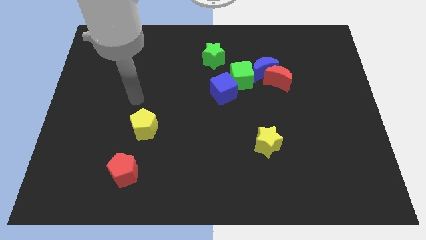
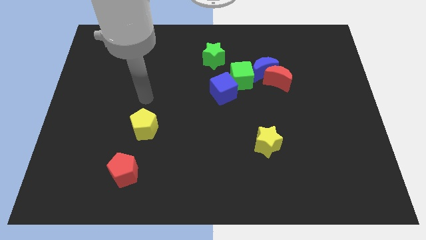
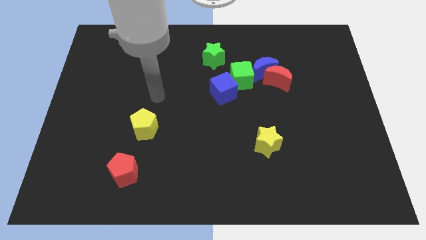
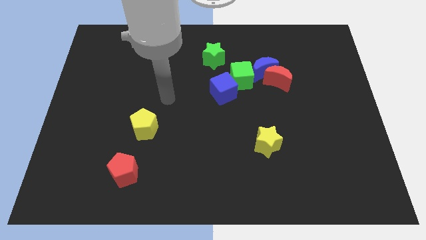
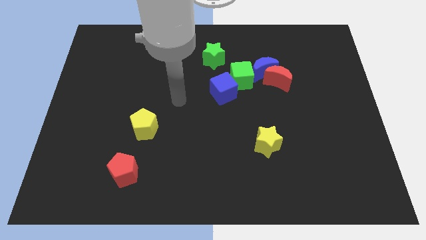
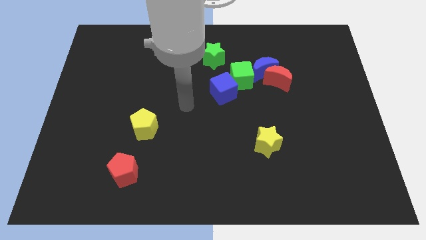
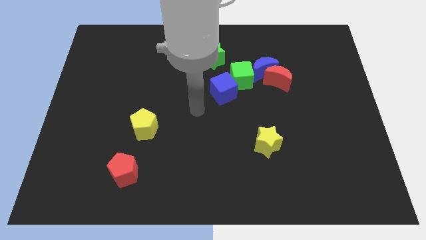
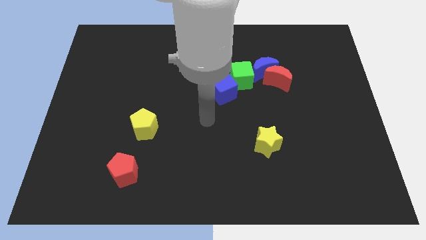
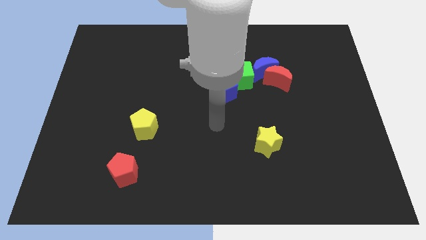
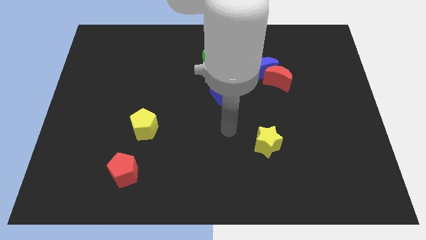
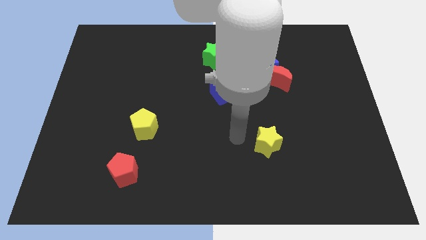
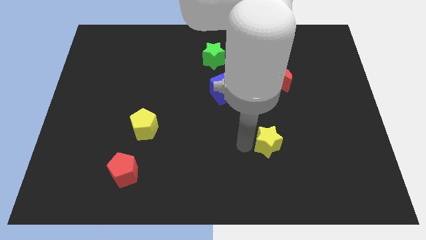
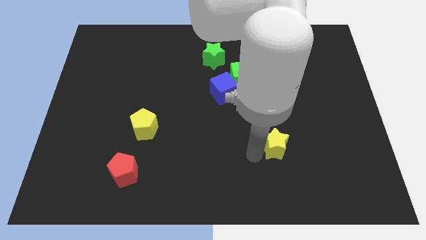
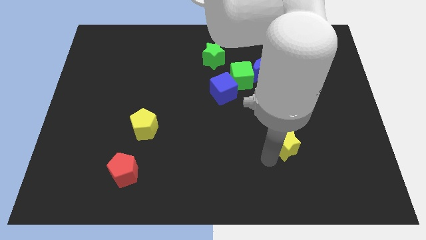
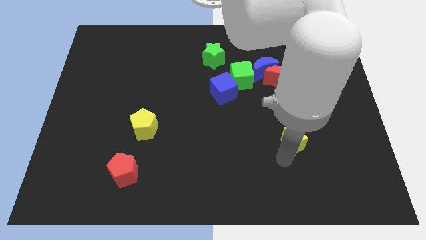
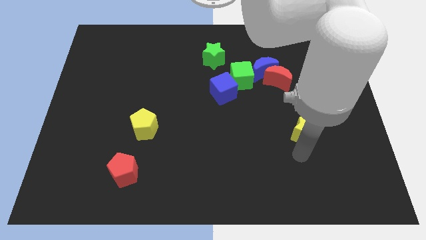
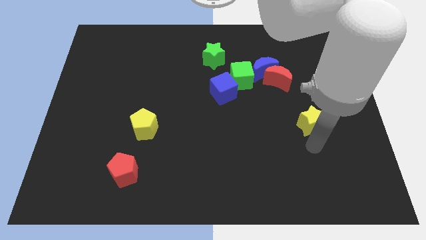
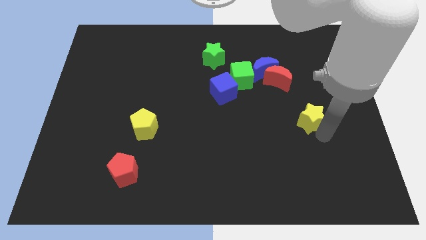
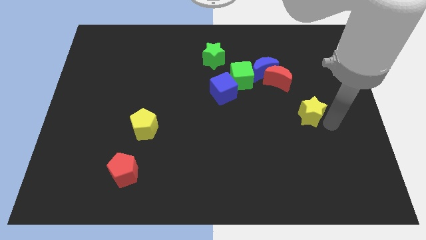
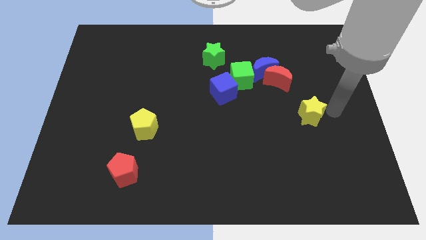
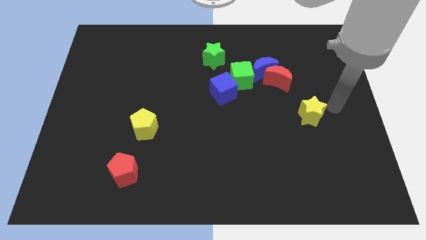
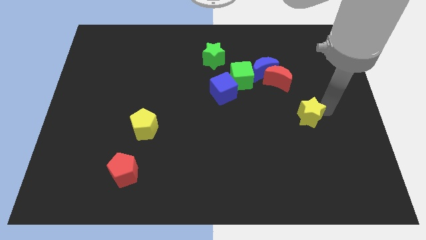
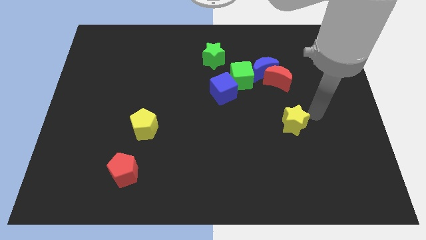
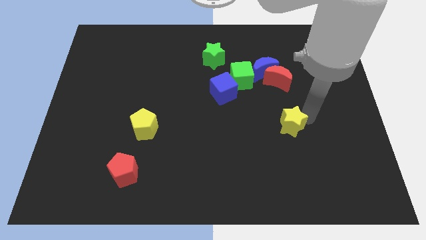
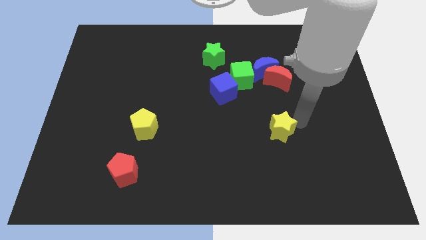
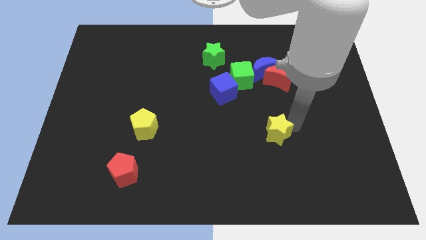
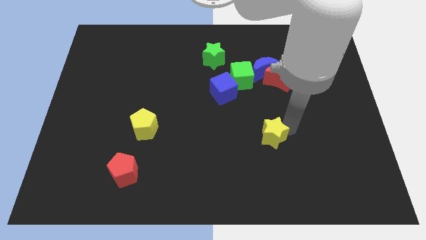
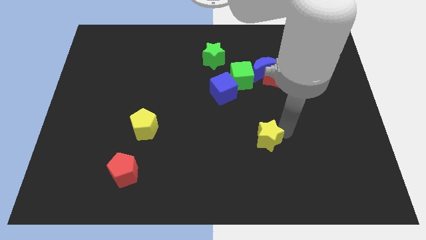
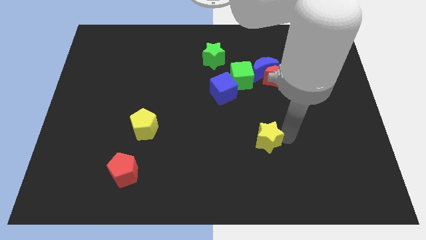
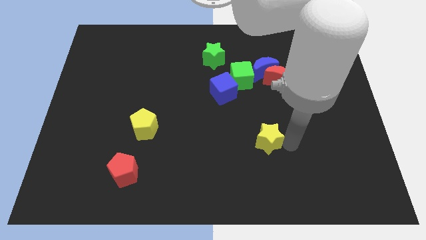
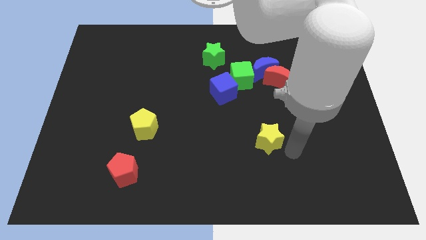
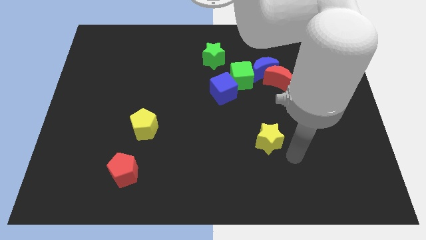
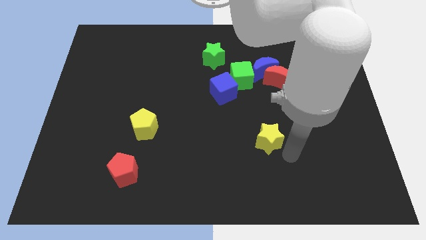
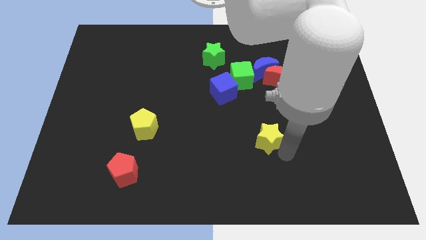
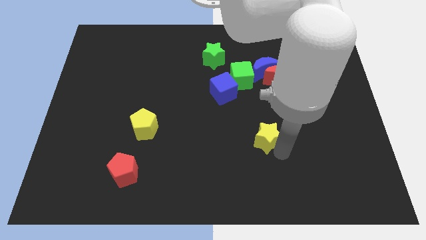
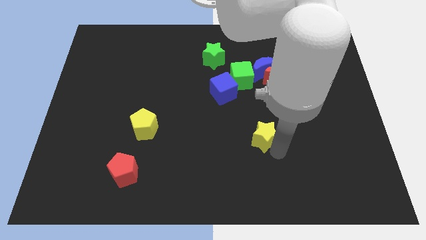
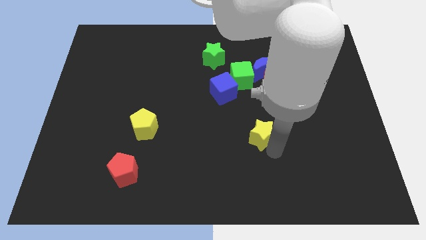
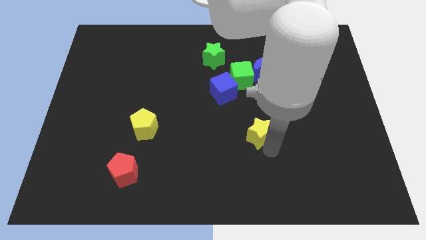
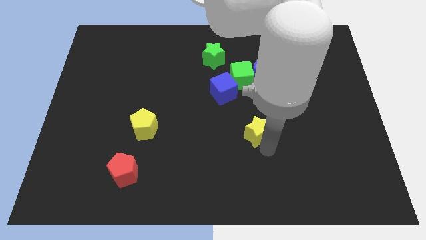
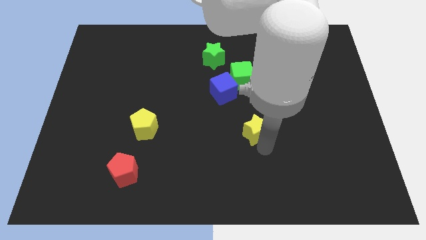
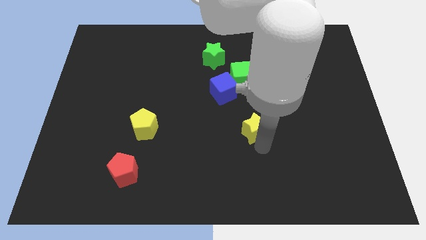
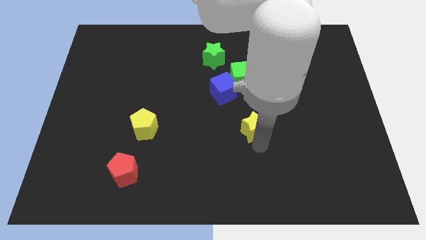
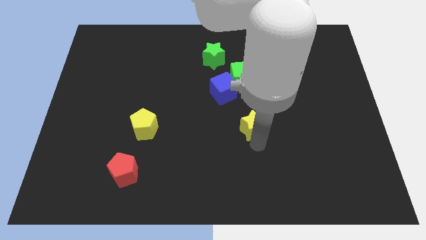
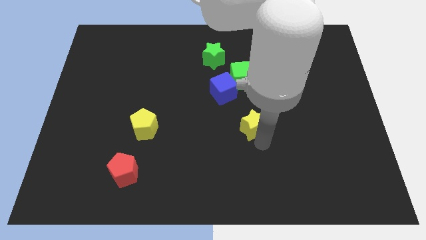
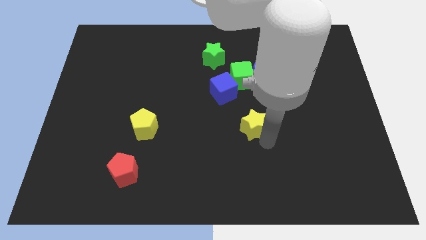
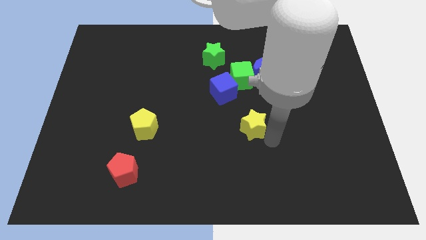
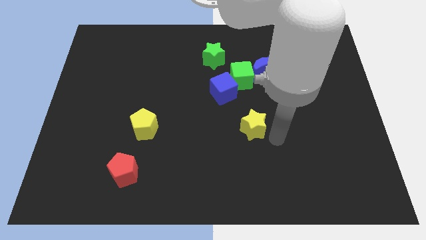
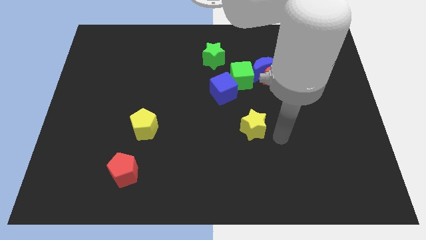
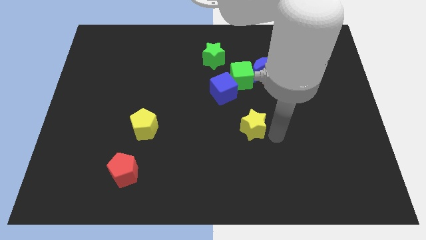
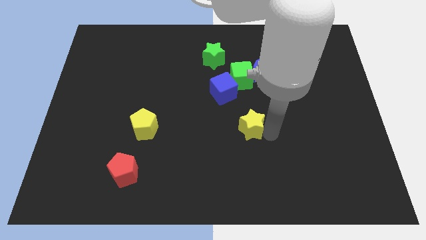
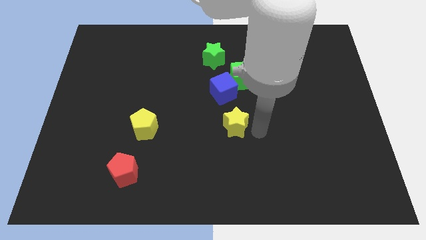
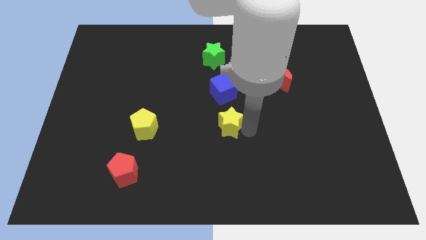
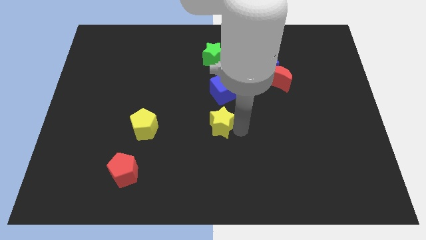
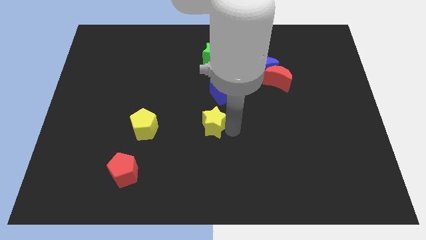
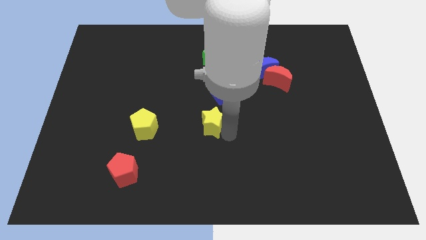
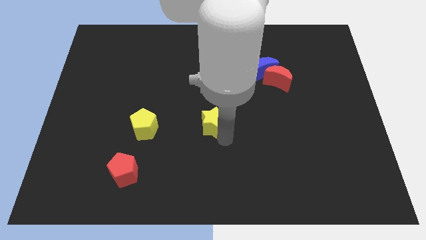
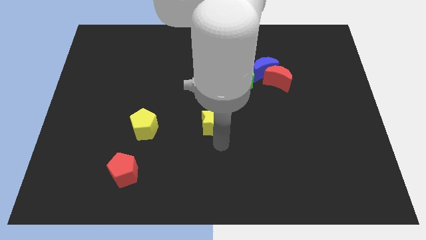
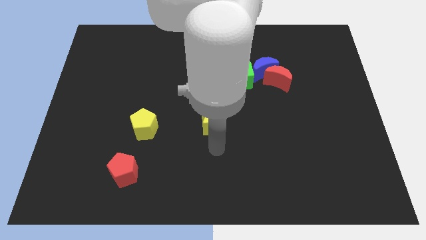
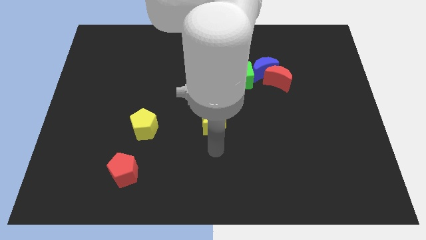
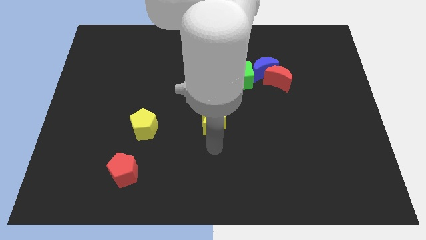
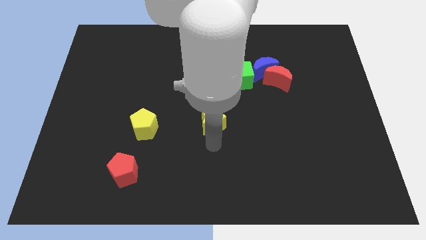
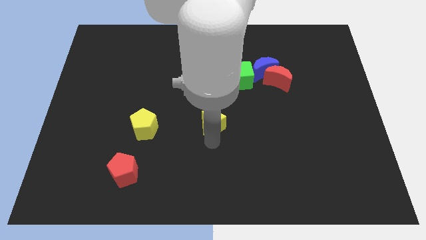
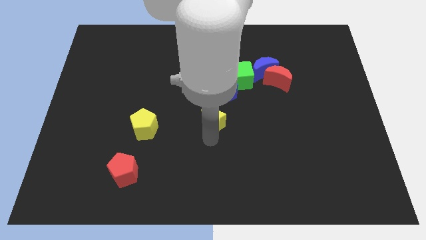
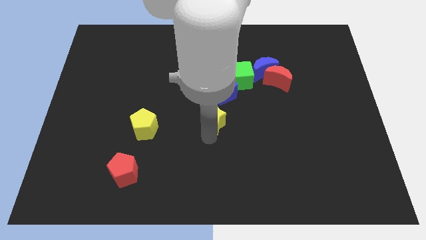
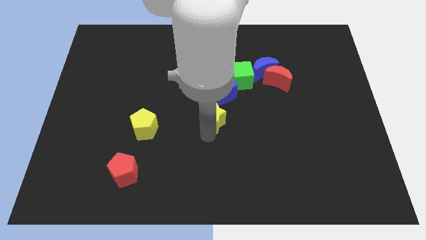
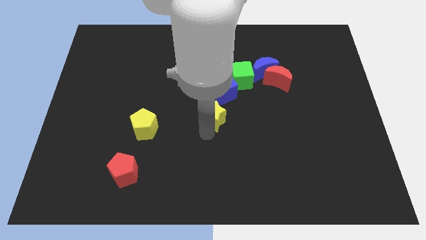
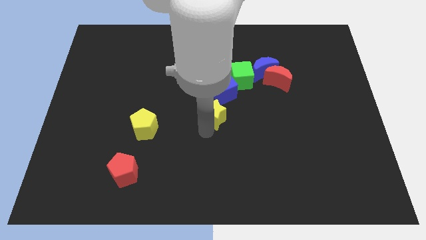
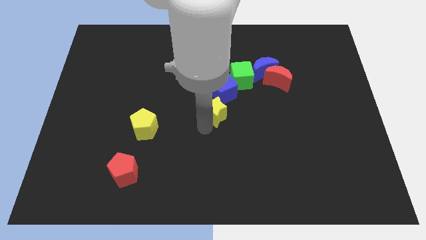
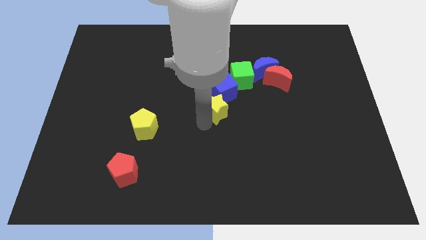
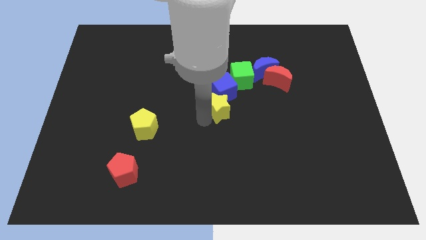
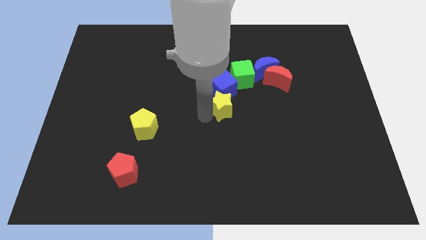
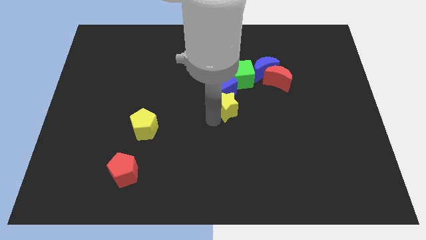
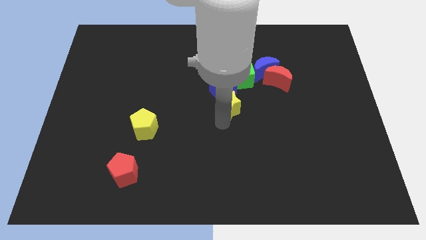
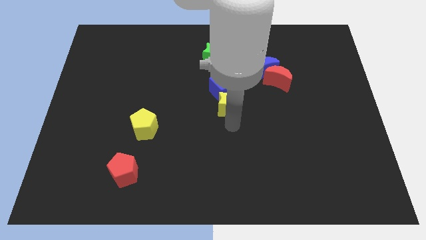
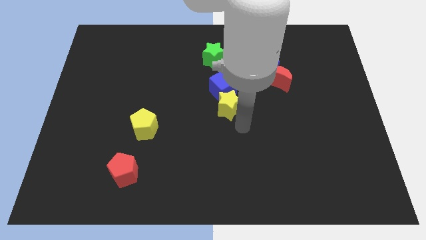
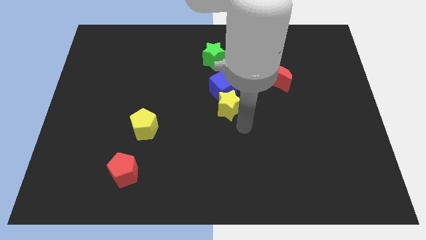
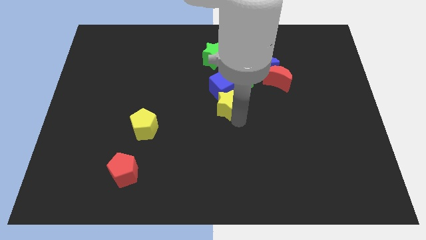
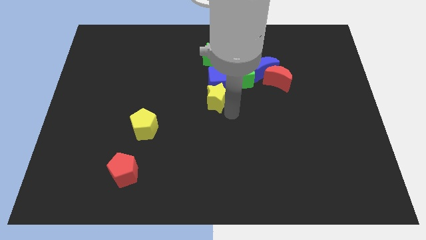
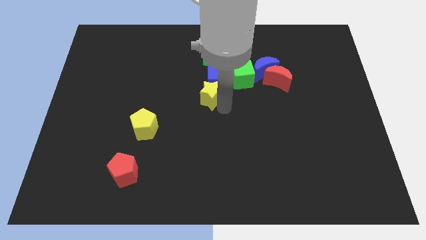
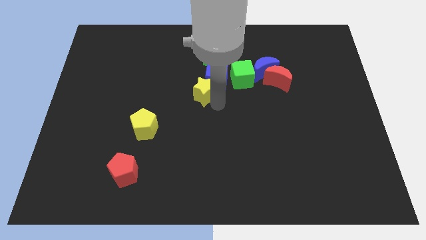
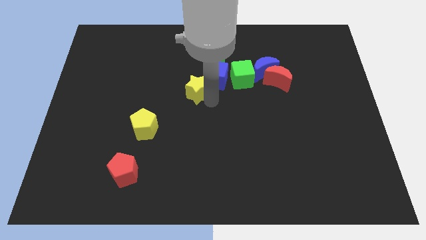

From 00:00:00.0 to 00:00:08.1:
slide the yellow star left of the green cube
